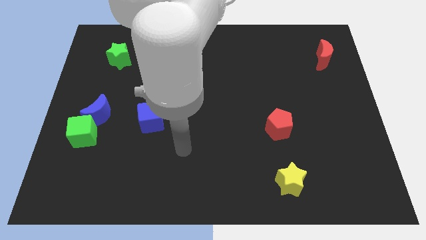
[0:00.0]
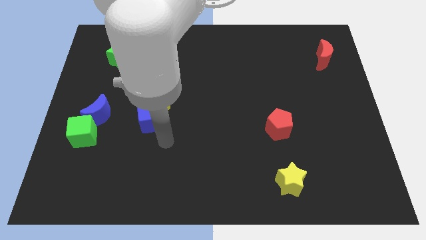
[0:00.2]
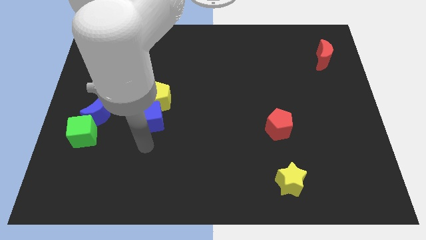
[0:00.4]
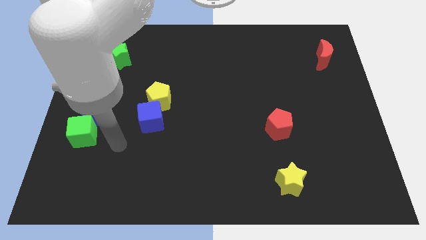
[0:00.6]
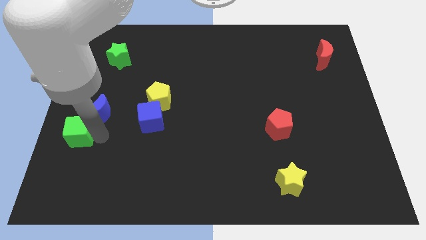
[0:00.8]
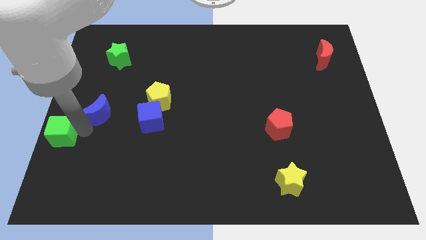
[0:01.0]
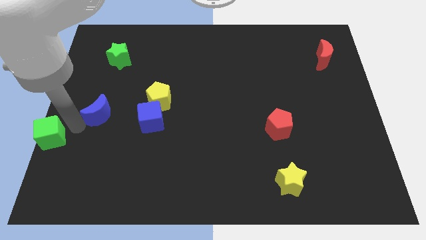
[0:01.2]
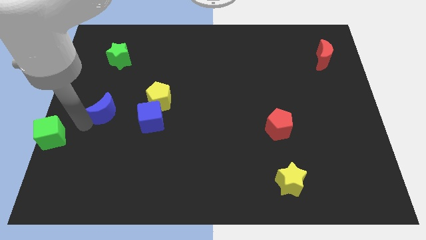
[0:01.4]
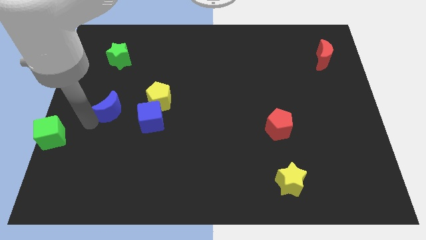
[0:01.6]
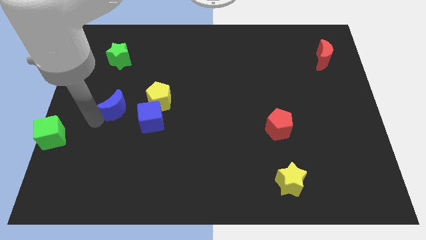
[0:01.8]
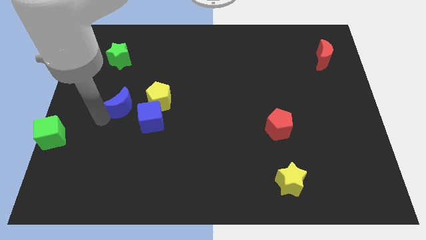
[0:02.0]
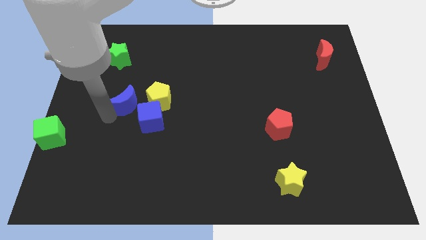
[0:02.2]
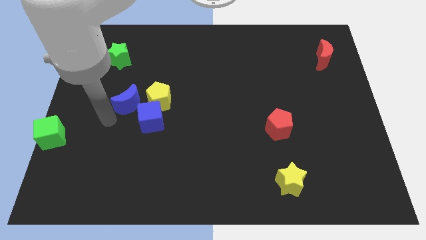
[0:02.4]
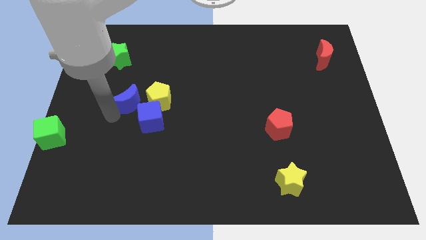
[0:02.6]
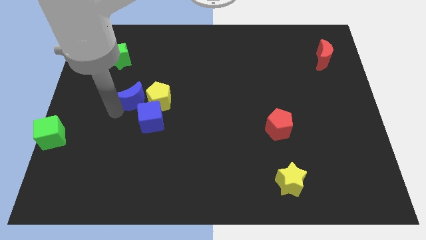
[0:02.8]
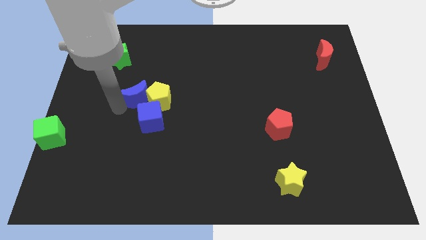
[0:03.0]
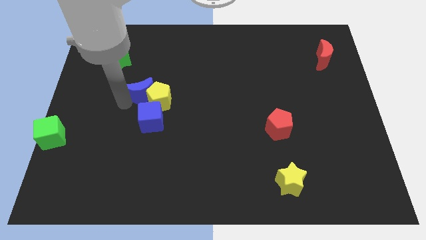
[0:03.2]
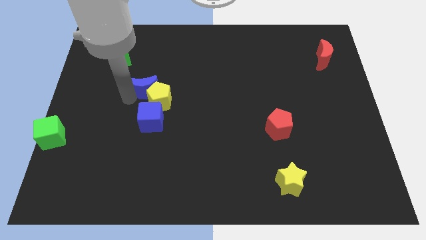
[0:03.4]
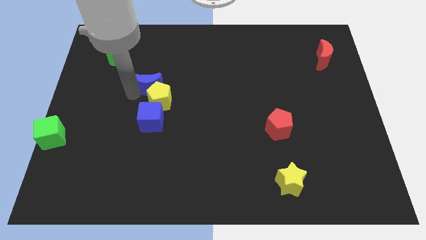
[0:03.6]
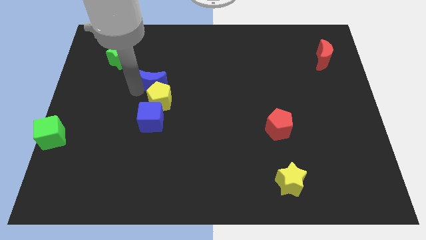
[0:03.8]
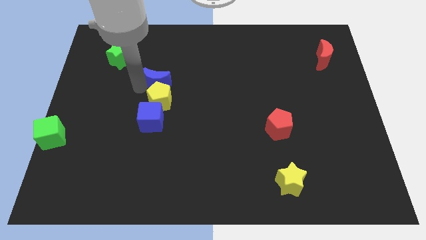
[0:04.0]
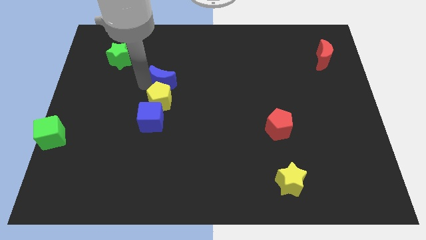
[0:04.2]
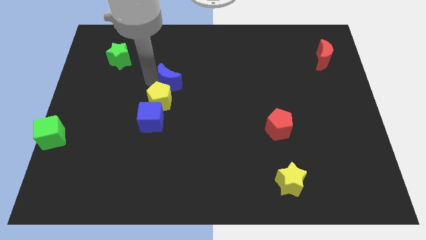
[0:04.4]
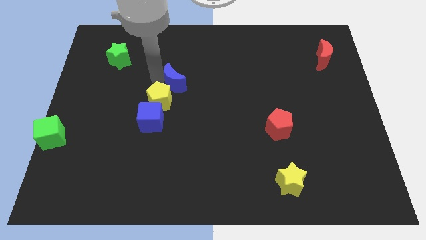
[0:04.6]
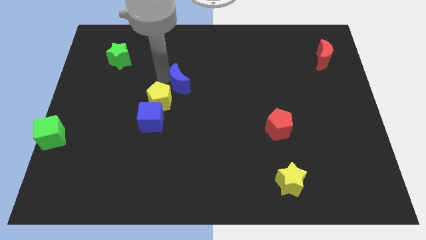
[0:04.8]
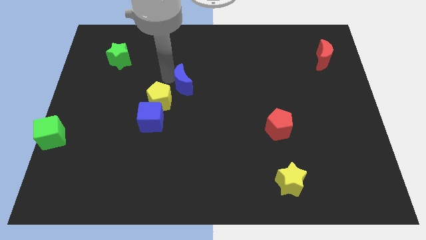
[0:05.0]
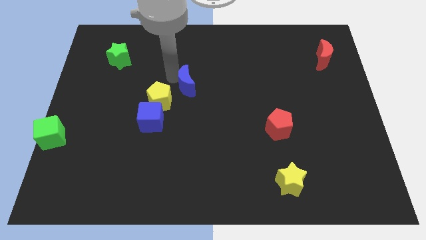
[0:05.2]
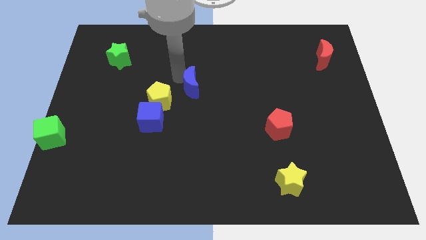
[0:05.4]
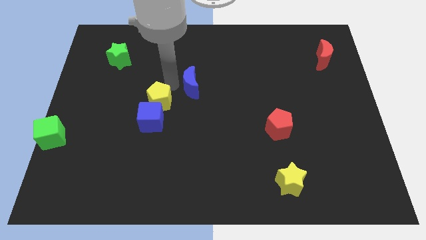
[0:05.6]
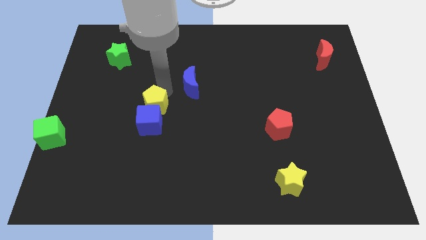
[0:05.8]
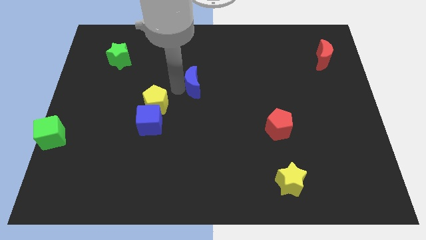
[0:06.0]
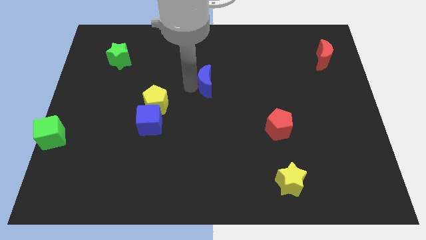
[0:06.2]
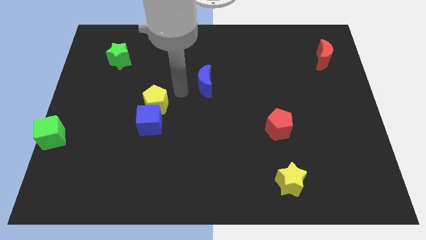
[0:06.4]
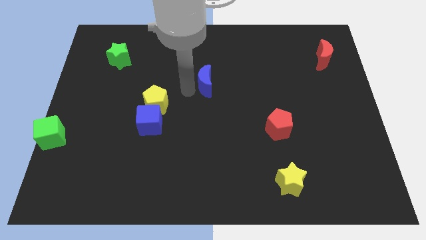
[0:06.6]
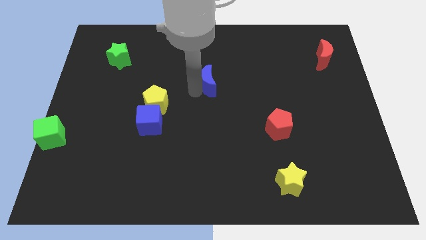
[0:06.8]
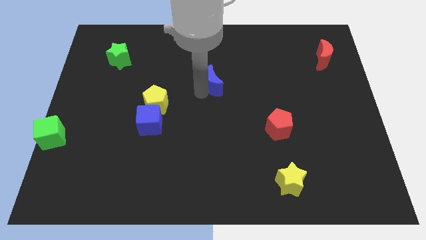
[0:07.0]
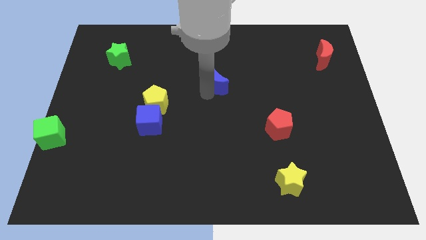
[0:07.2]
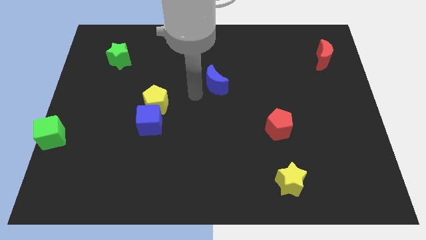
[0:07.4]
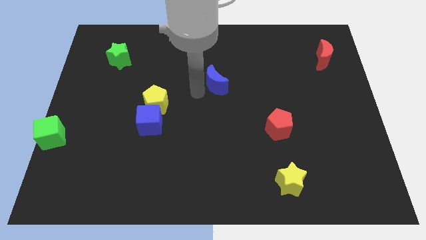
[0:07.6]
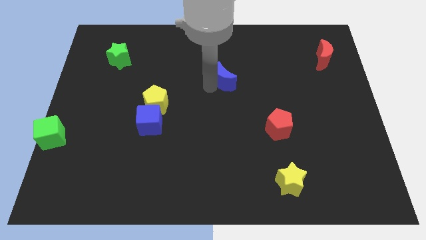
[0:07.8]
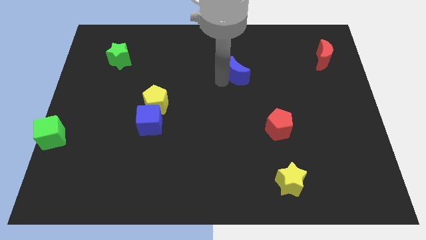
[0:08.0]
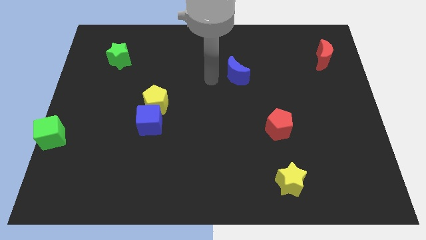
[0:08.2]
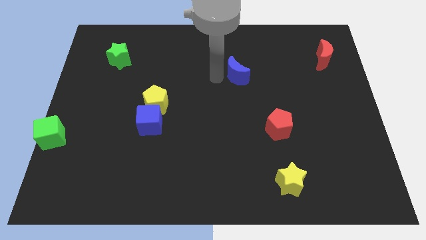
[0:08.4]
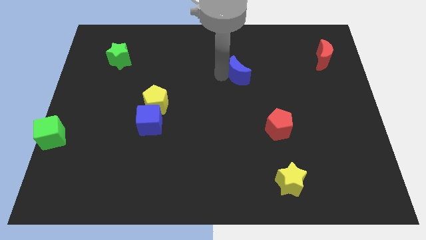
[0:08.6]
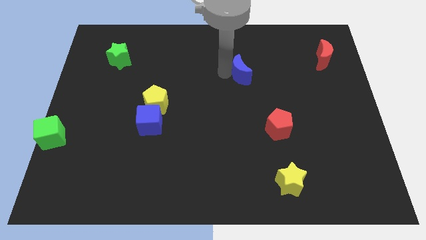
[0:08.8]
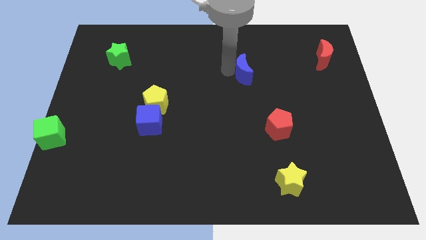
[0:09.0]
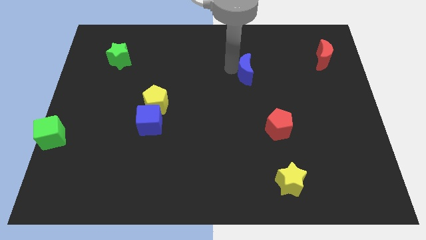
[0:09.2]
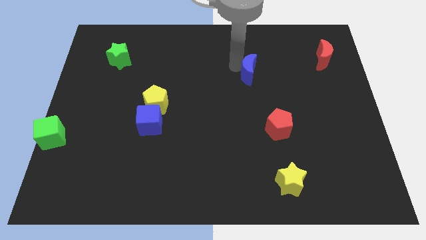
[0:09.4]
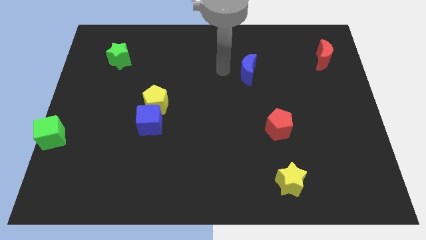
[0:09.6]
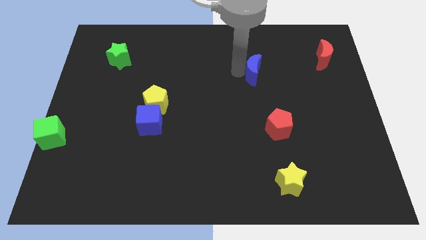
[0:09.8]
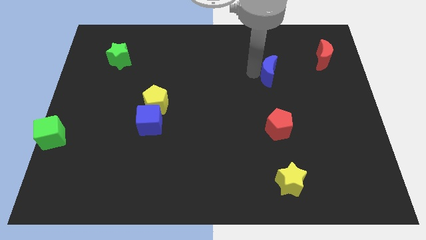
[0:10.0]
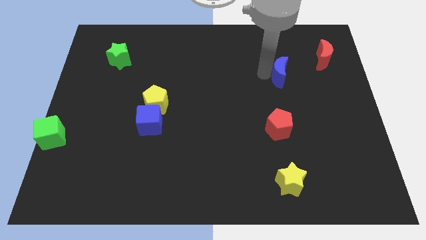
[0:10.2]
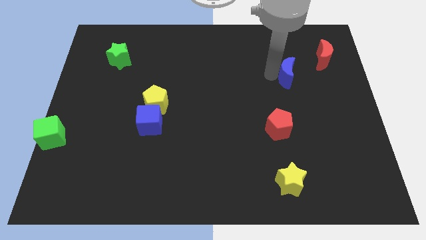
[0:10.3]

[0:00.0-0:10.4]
push the blue moon to the bottom left of the red moon

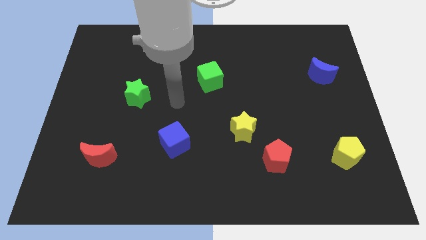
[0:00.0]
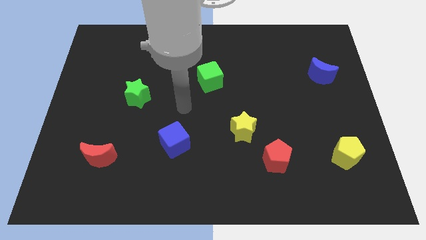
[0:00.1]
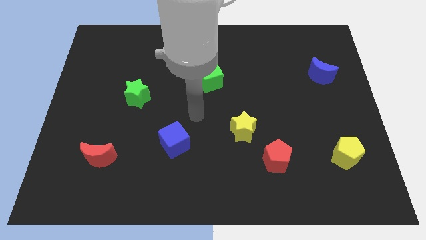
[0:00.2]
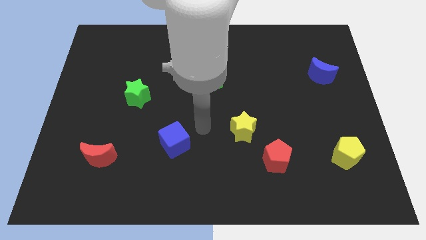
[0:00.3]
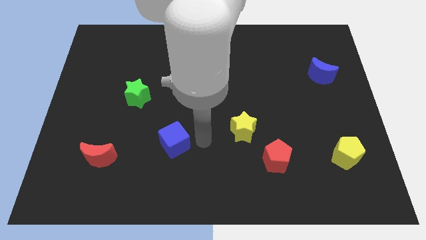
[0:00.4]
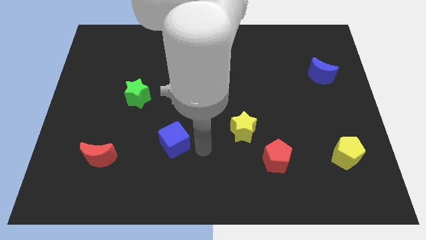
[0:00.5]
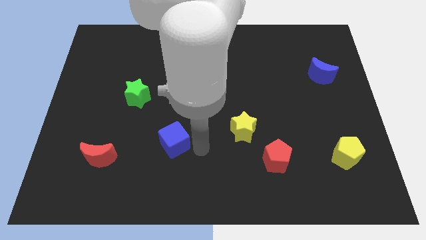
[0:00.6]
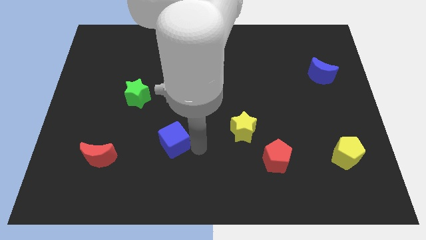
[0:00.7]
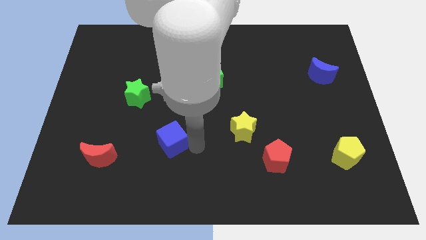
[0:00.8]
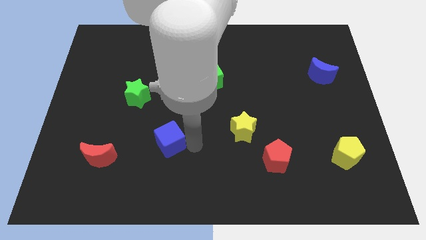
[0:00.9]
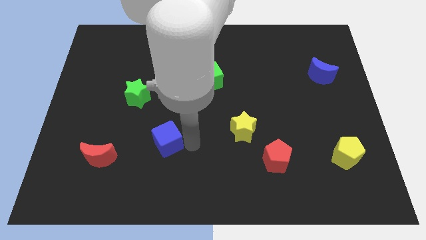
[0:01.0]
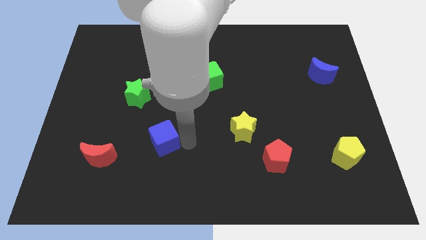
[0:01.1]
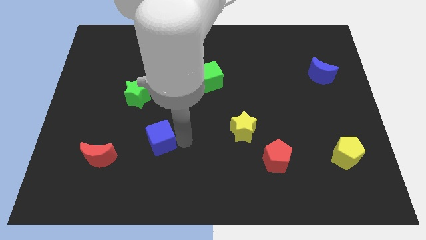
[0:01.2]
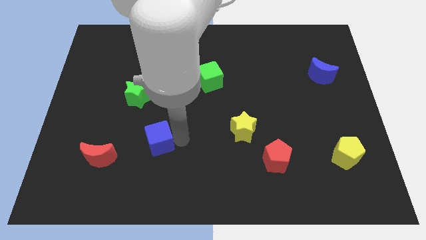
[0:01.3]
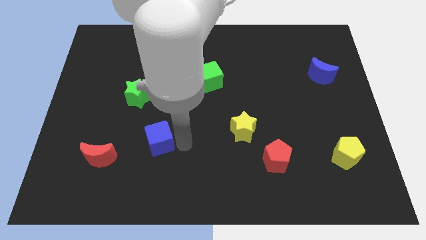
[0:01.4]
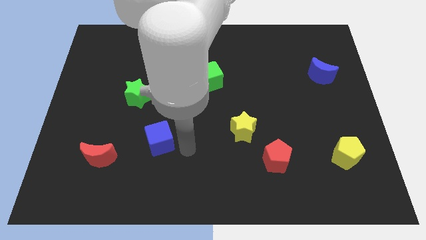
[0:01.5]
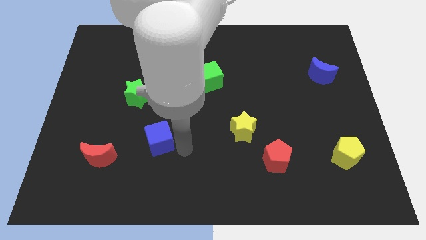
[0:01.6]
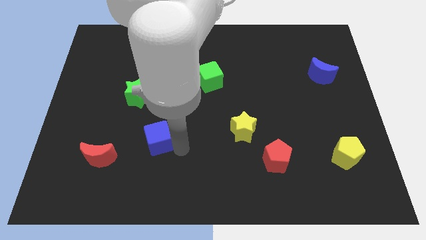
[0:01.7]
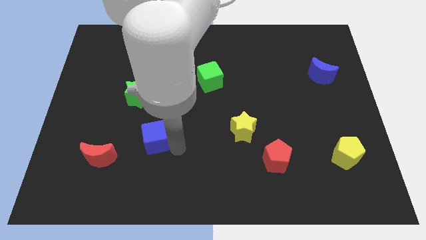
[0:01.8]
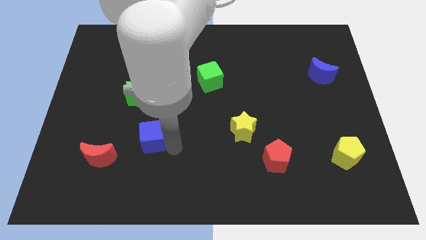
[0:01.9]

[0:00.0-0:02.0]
push the blue cube below the green star
